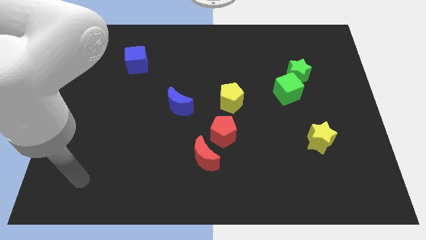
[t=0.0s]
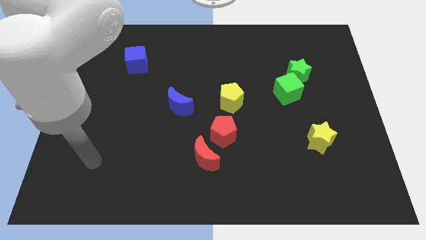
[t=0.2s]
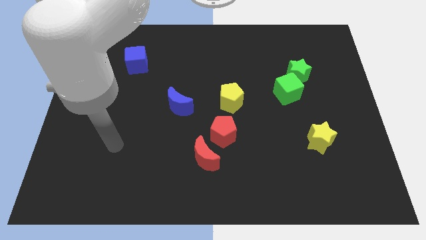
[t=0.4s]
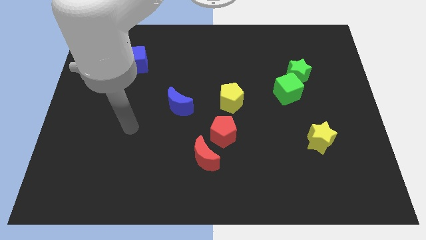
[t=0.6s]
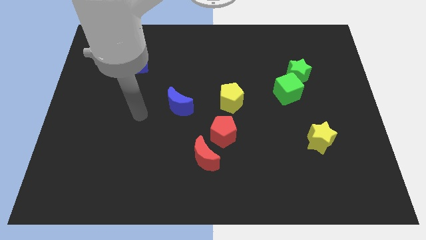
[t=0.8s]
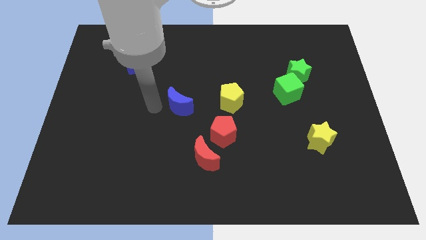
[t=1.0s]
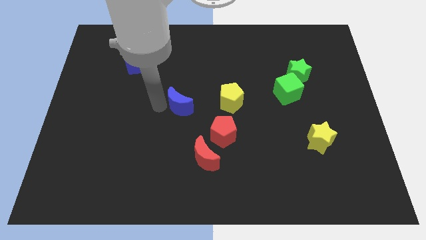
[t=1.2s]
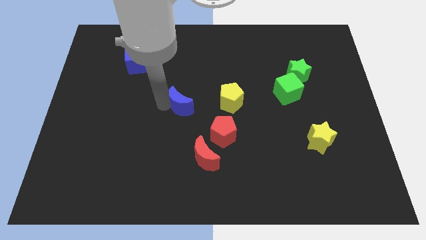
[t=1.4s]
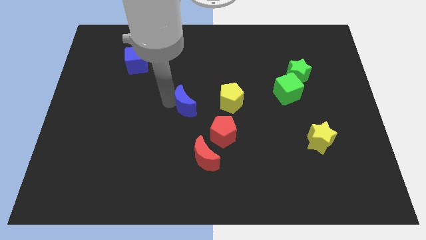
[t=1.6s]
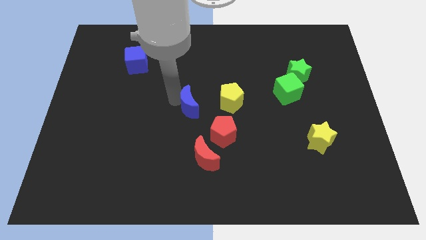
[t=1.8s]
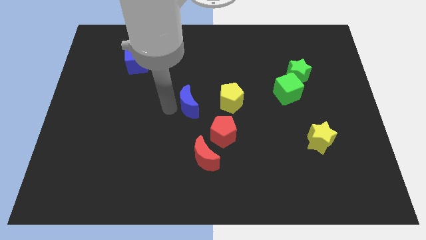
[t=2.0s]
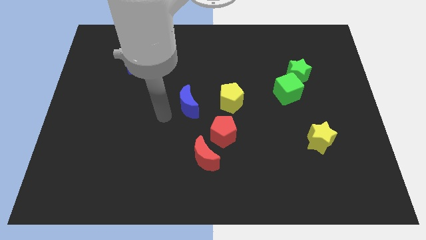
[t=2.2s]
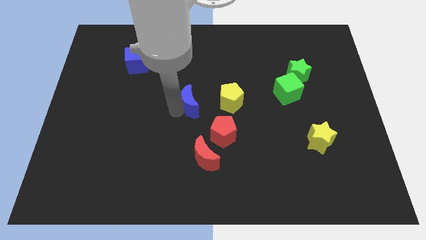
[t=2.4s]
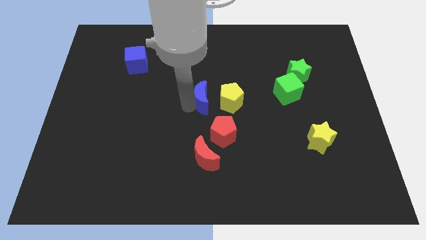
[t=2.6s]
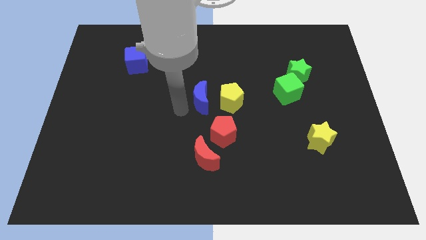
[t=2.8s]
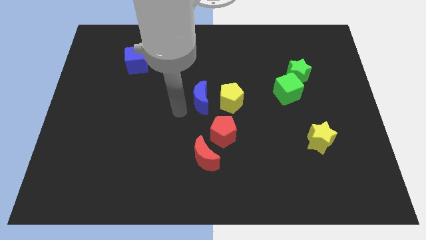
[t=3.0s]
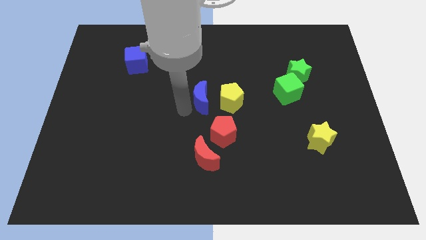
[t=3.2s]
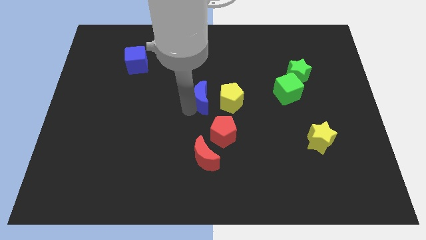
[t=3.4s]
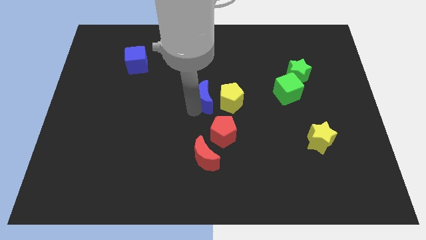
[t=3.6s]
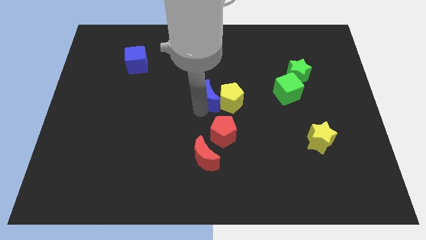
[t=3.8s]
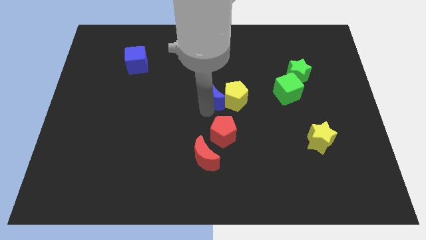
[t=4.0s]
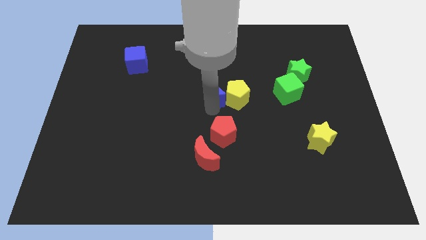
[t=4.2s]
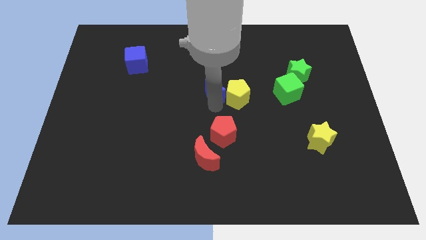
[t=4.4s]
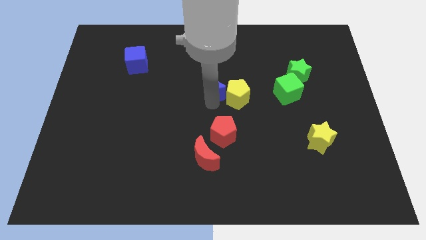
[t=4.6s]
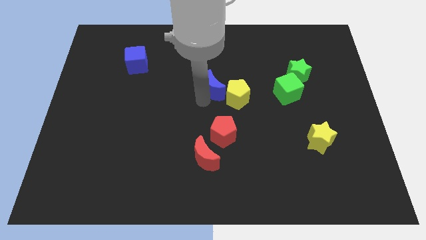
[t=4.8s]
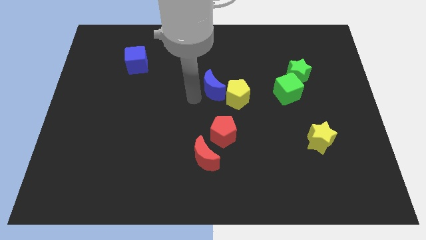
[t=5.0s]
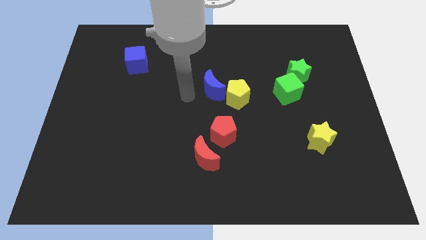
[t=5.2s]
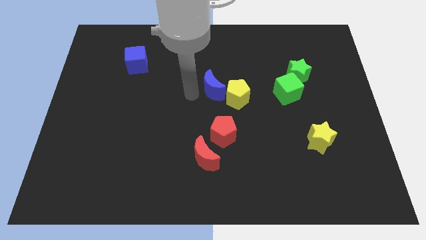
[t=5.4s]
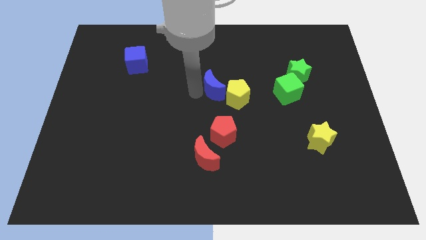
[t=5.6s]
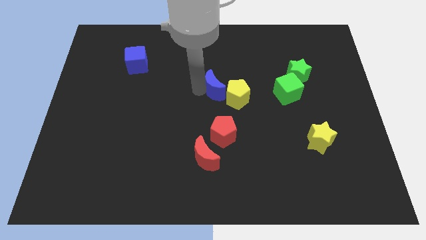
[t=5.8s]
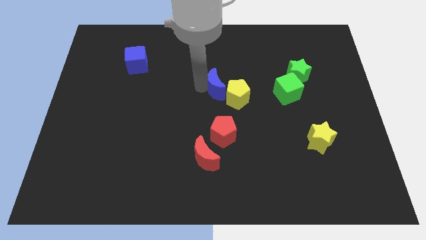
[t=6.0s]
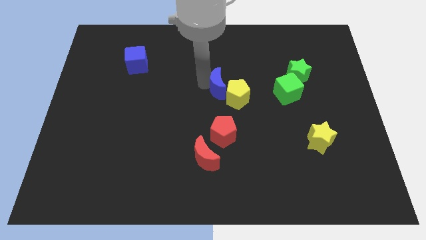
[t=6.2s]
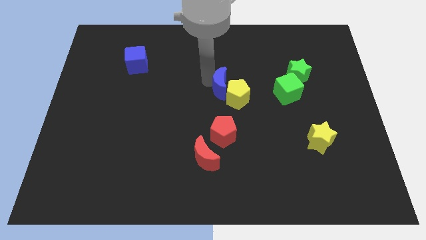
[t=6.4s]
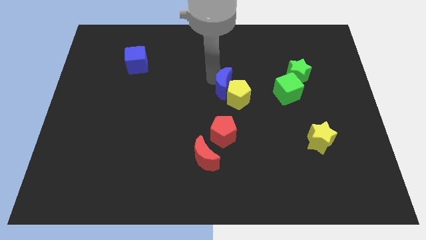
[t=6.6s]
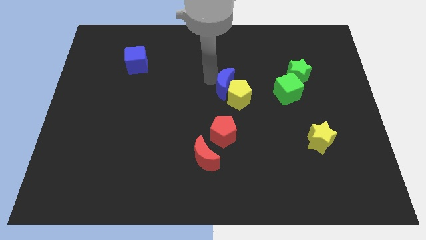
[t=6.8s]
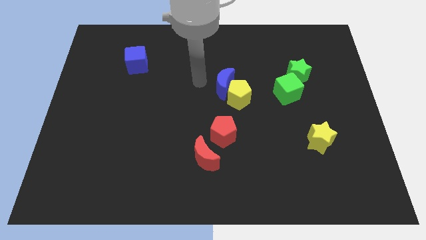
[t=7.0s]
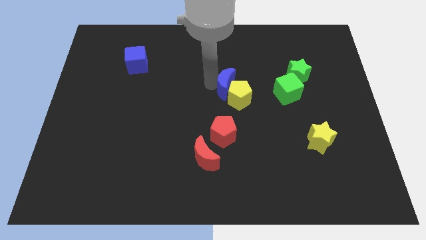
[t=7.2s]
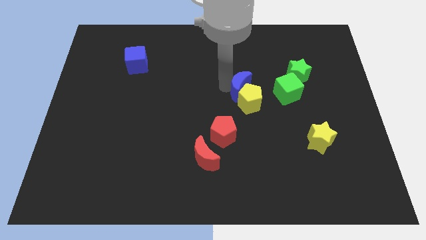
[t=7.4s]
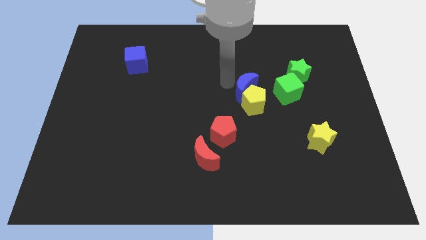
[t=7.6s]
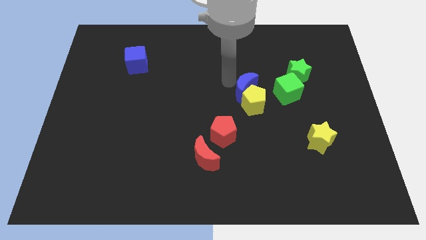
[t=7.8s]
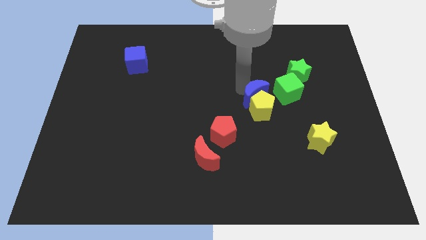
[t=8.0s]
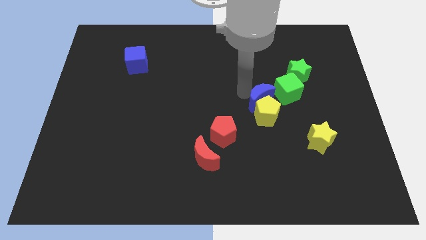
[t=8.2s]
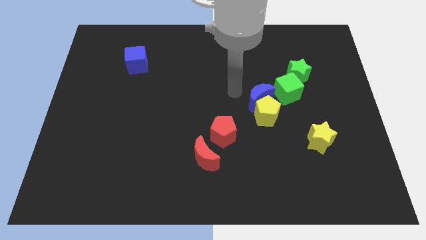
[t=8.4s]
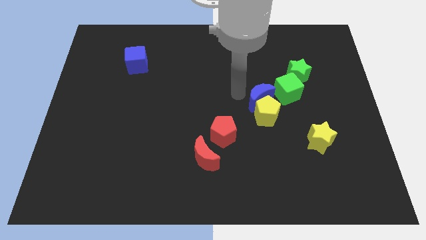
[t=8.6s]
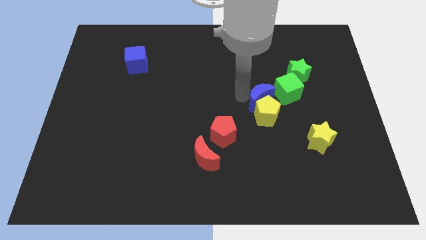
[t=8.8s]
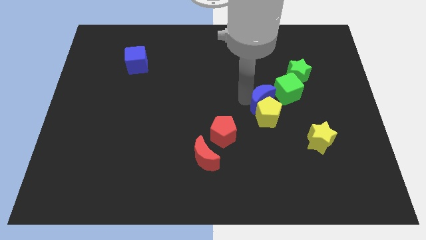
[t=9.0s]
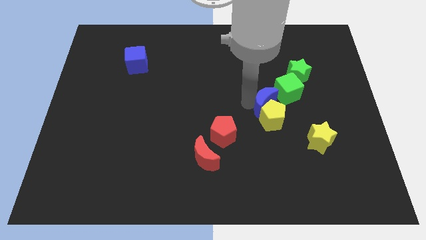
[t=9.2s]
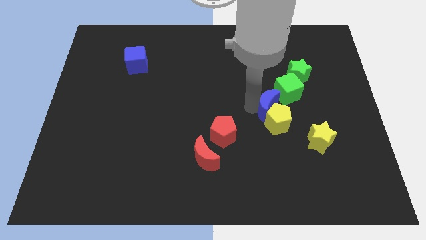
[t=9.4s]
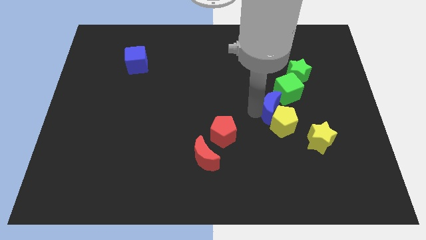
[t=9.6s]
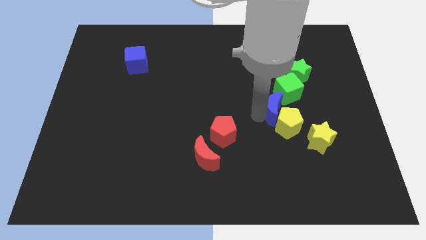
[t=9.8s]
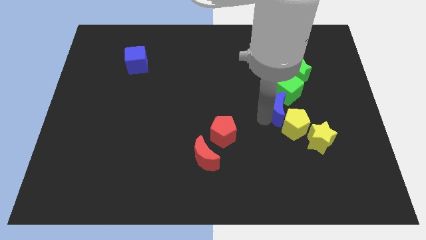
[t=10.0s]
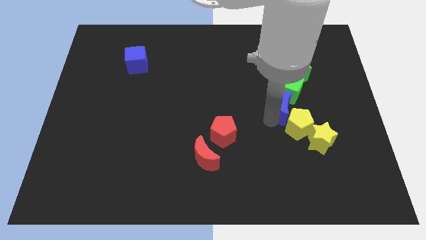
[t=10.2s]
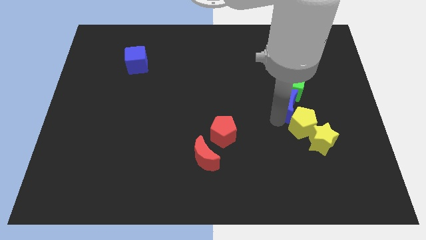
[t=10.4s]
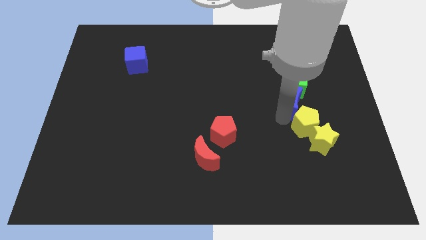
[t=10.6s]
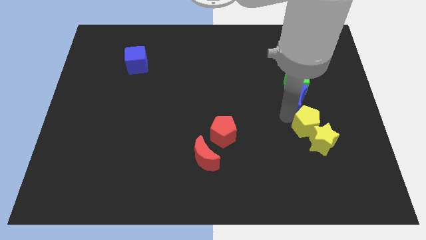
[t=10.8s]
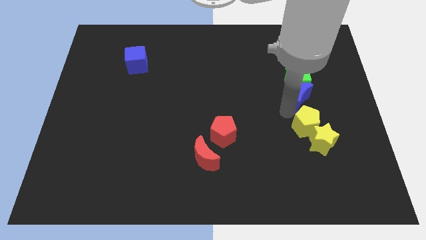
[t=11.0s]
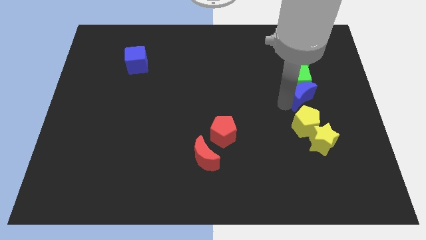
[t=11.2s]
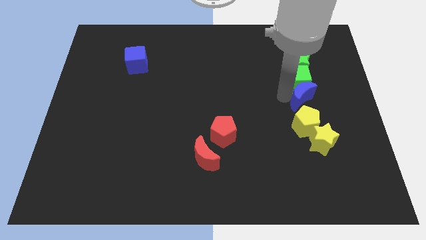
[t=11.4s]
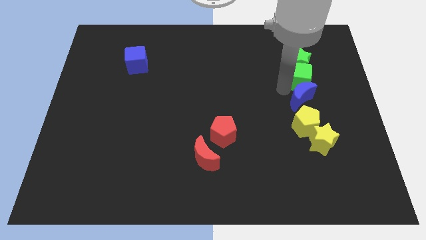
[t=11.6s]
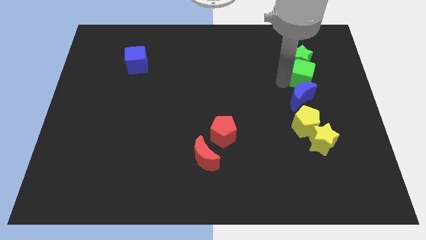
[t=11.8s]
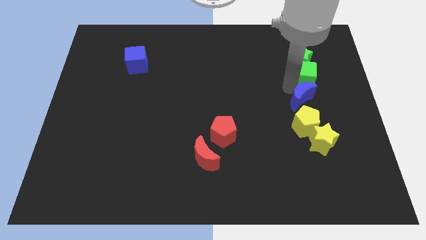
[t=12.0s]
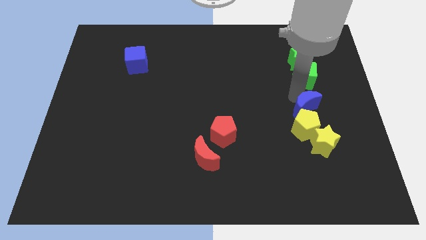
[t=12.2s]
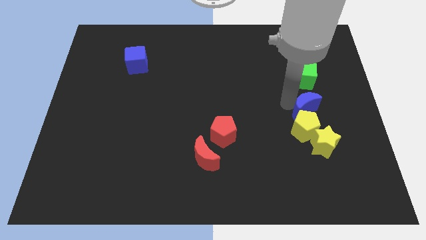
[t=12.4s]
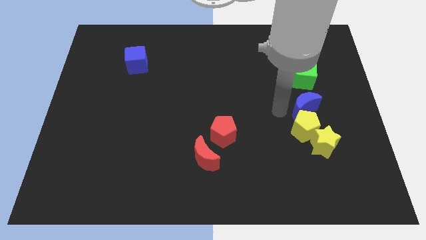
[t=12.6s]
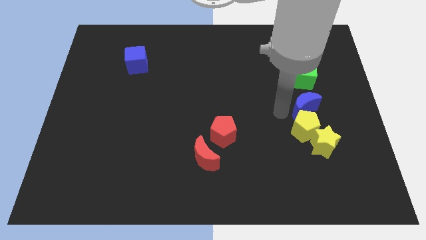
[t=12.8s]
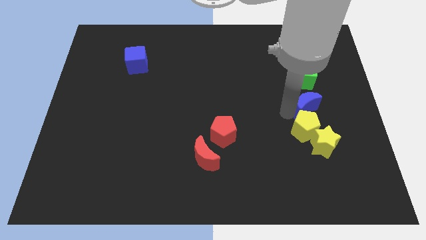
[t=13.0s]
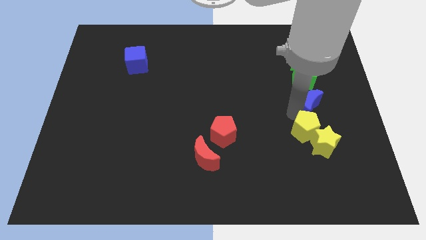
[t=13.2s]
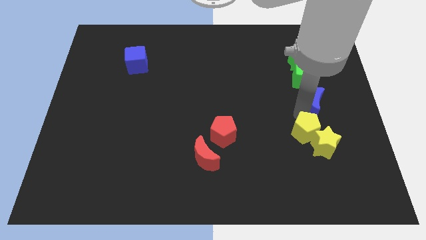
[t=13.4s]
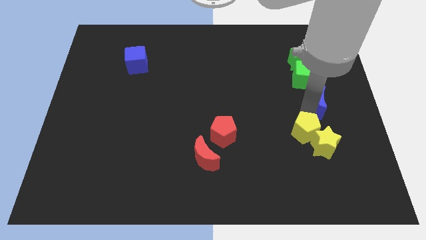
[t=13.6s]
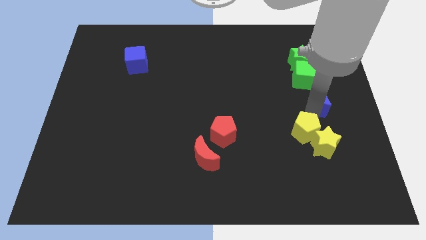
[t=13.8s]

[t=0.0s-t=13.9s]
slide the blue moon to the right side of the board
